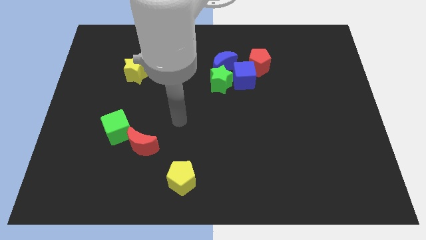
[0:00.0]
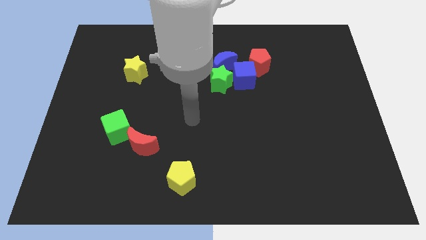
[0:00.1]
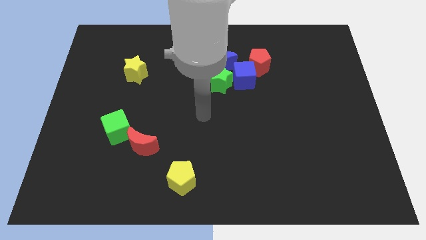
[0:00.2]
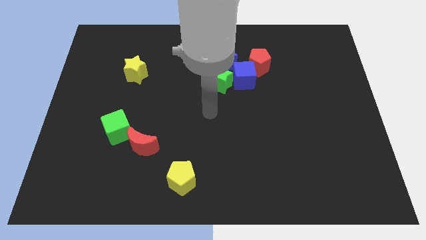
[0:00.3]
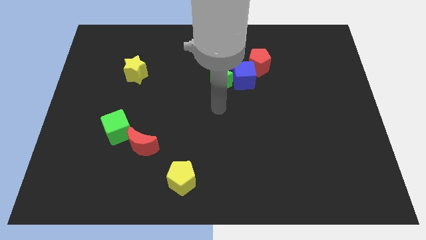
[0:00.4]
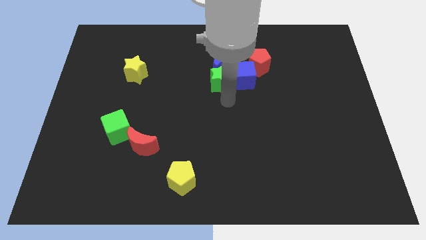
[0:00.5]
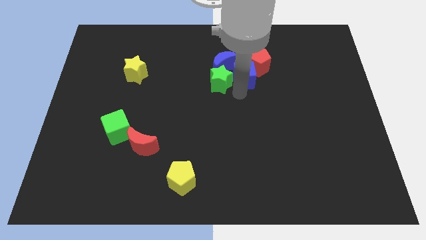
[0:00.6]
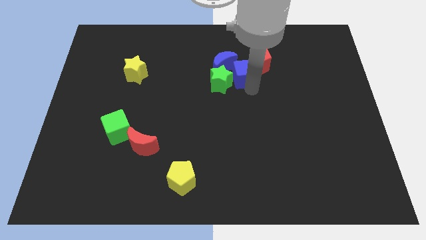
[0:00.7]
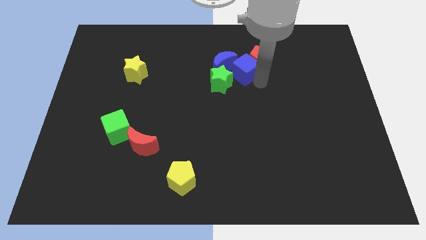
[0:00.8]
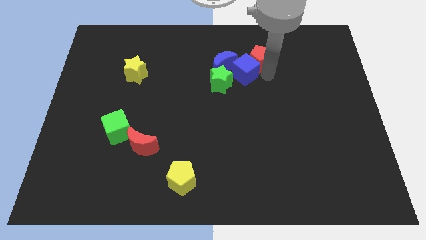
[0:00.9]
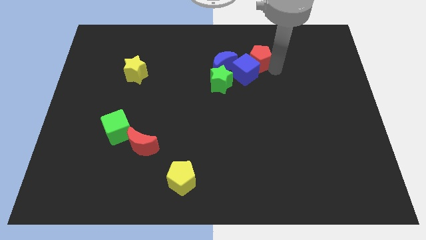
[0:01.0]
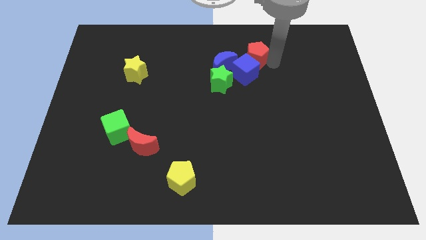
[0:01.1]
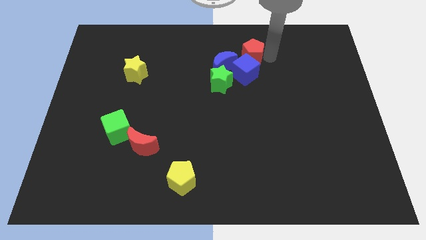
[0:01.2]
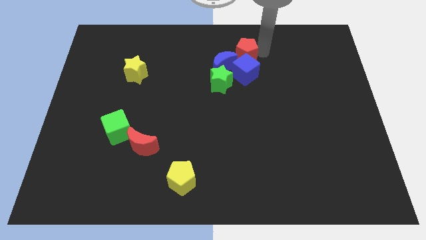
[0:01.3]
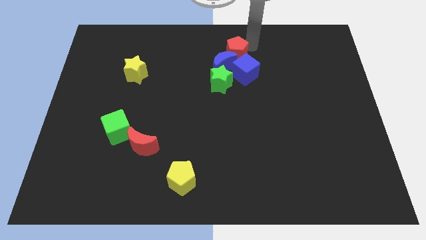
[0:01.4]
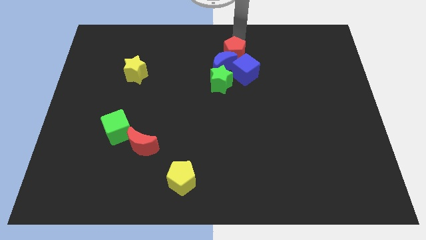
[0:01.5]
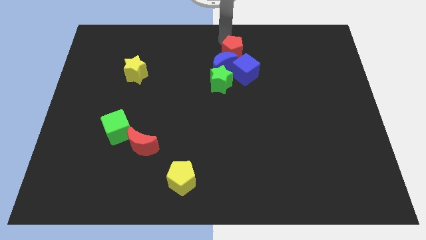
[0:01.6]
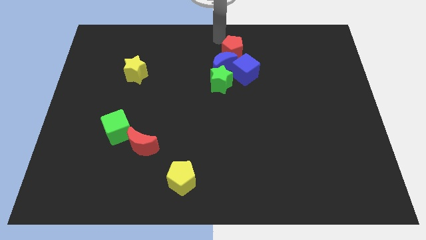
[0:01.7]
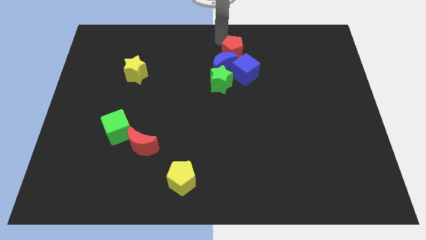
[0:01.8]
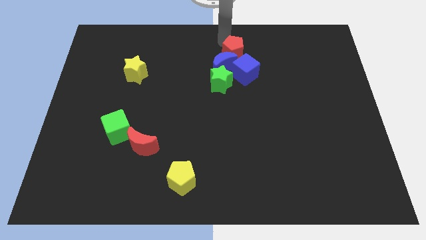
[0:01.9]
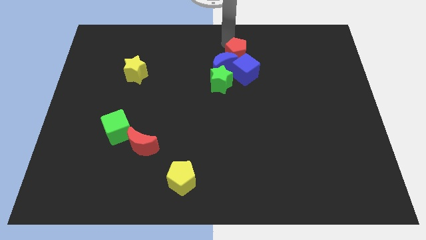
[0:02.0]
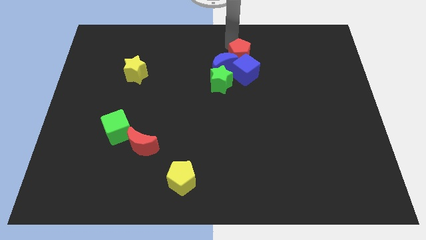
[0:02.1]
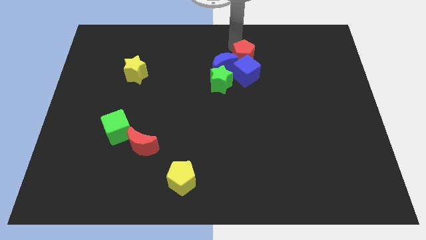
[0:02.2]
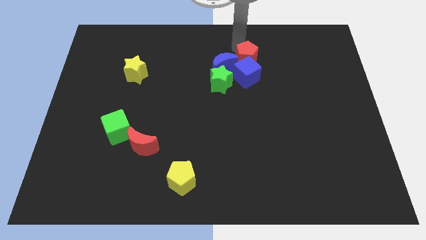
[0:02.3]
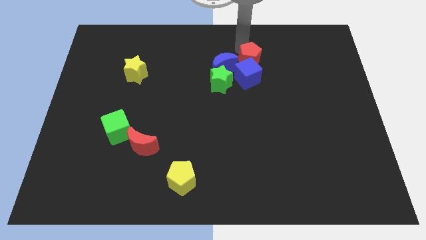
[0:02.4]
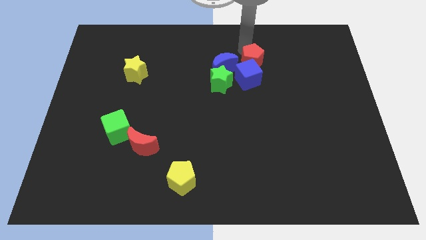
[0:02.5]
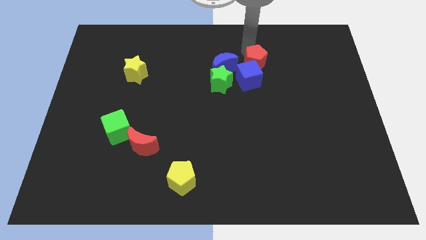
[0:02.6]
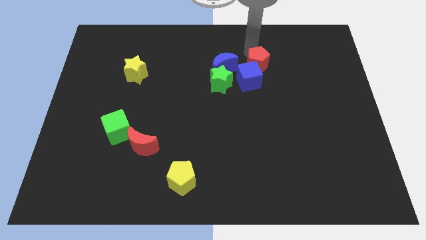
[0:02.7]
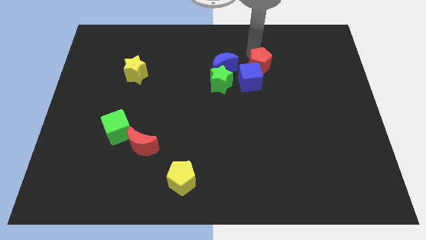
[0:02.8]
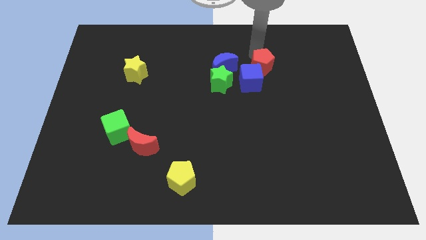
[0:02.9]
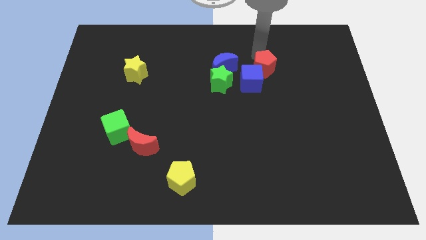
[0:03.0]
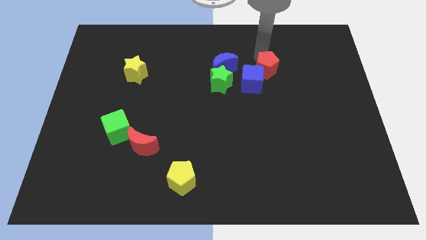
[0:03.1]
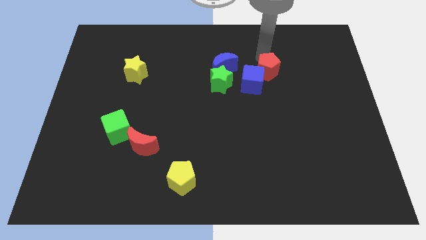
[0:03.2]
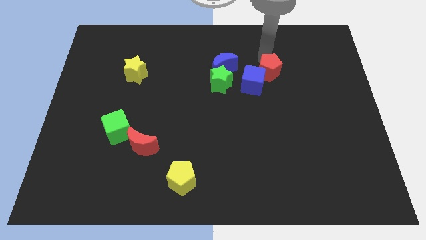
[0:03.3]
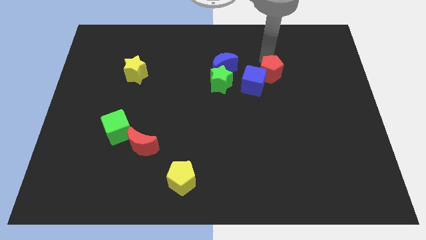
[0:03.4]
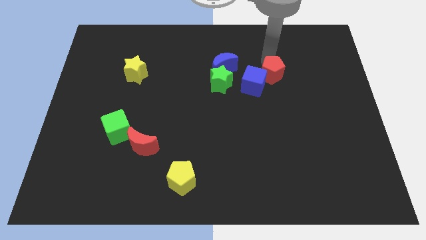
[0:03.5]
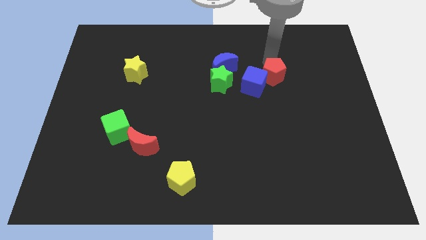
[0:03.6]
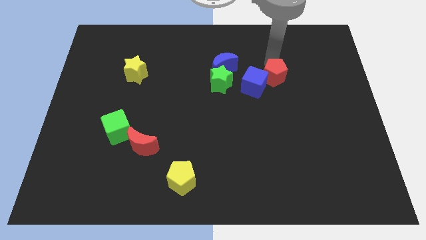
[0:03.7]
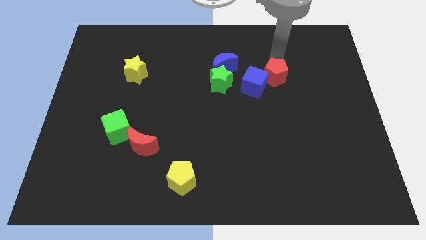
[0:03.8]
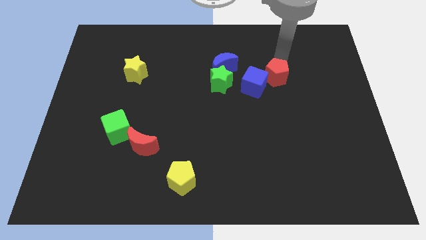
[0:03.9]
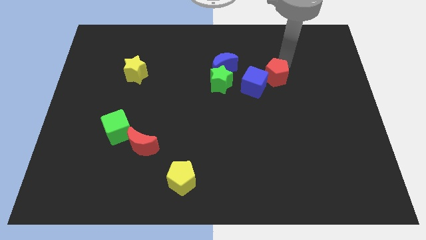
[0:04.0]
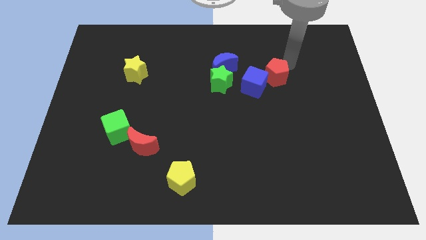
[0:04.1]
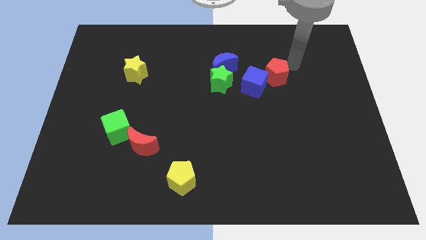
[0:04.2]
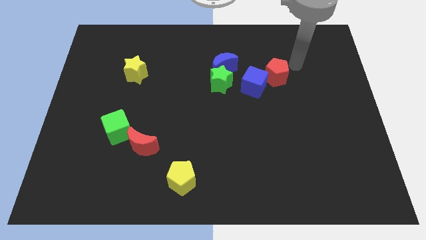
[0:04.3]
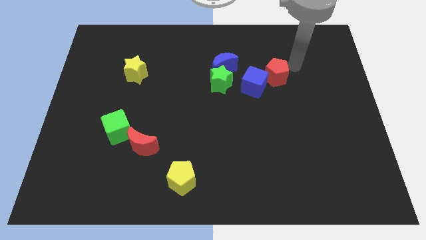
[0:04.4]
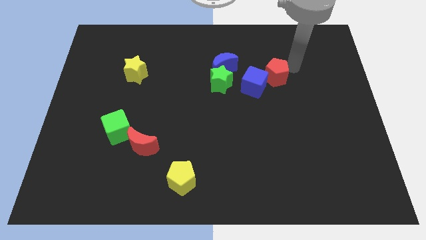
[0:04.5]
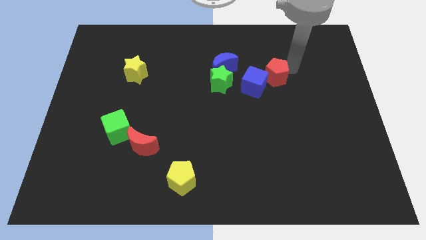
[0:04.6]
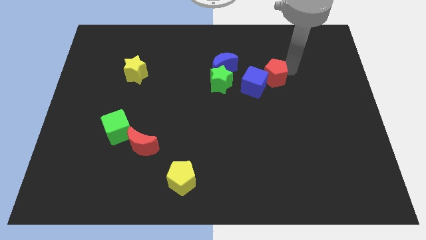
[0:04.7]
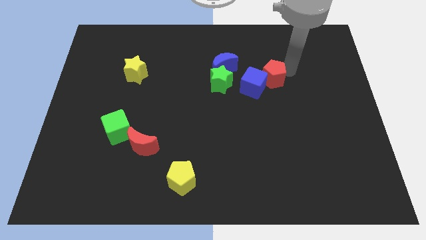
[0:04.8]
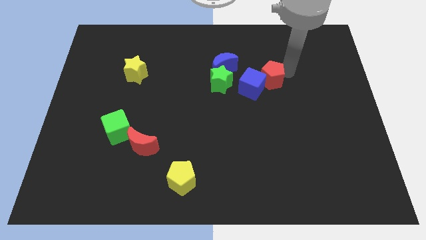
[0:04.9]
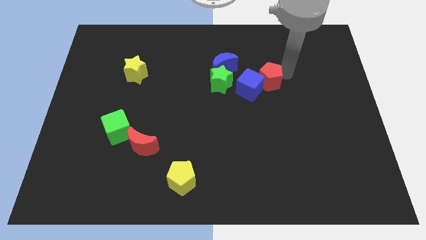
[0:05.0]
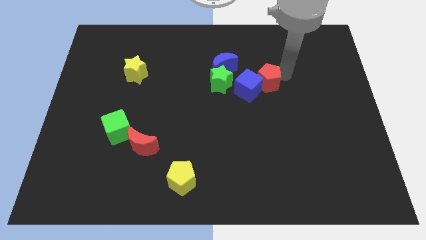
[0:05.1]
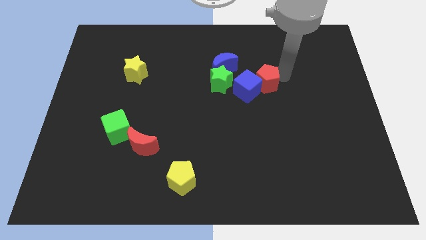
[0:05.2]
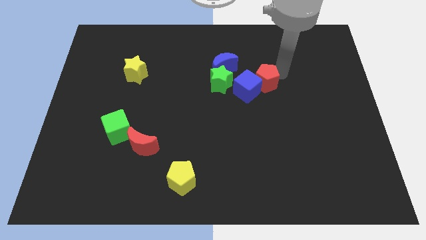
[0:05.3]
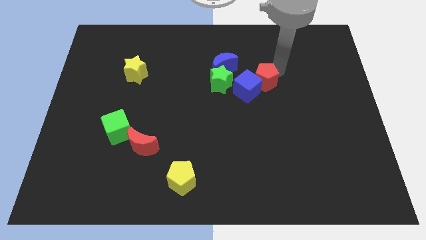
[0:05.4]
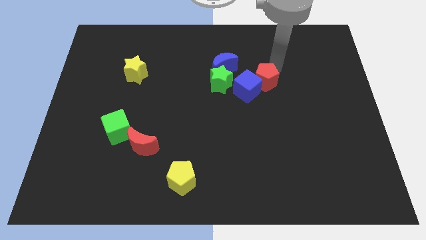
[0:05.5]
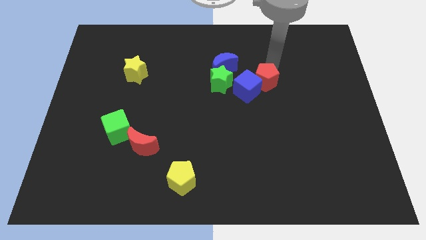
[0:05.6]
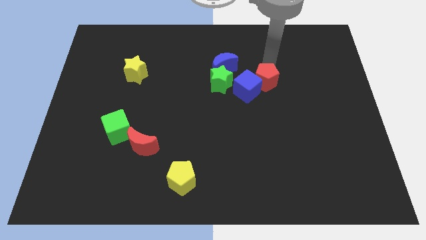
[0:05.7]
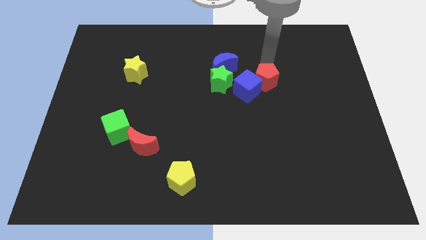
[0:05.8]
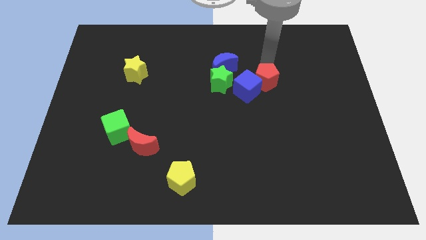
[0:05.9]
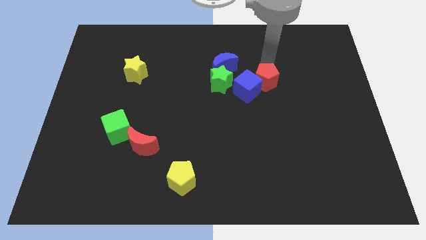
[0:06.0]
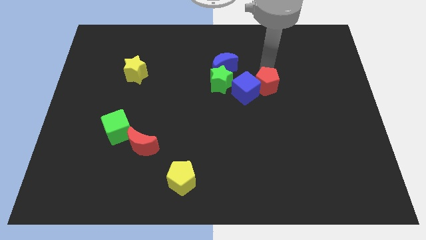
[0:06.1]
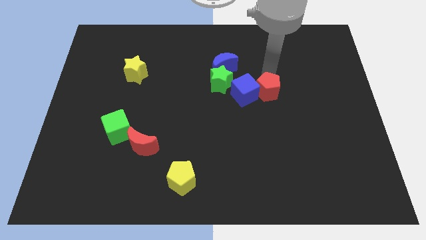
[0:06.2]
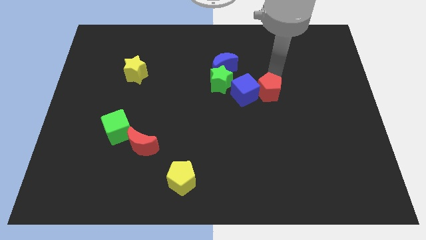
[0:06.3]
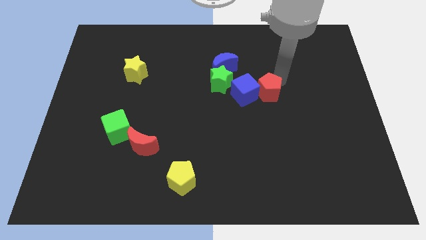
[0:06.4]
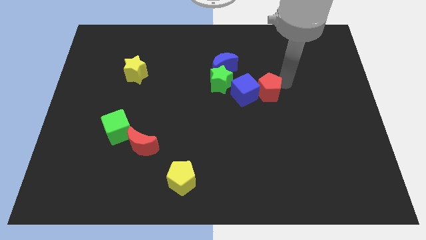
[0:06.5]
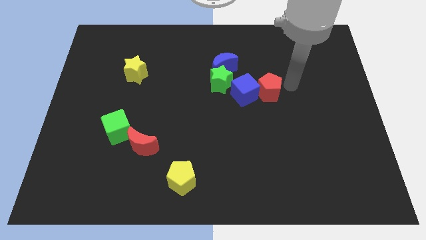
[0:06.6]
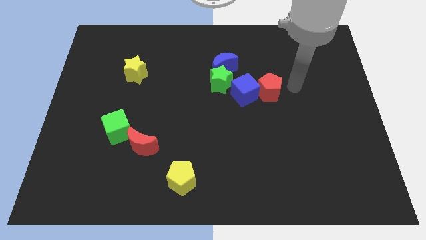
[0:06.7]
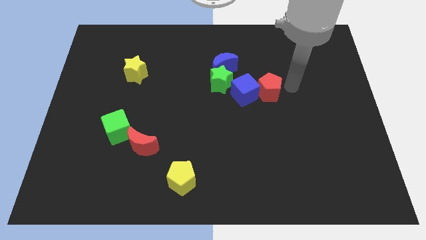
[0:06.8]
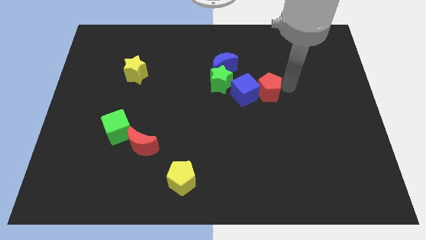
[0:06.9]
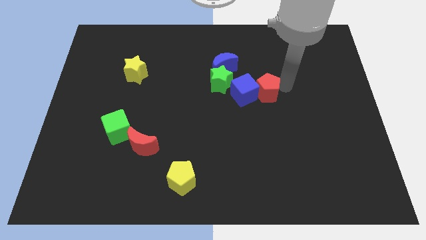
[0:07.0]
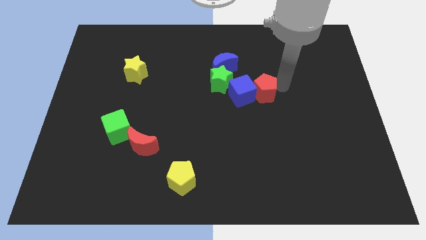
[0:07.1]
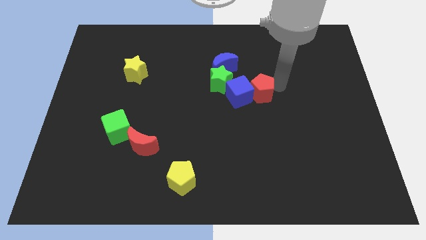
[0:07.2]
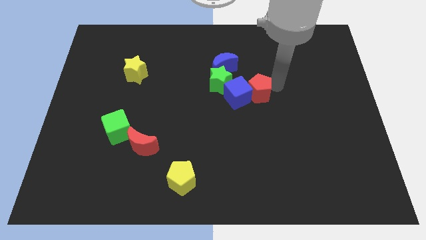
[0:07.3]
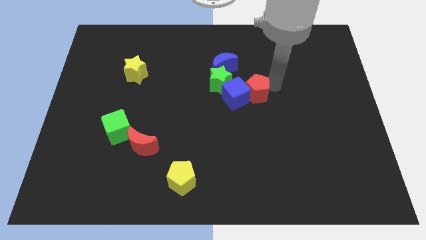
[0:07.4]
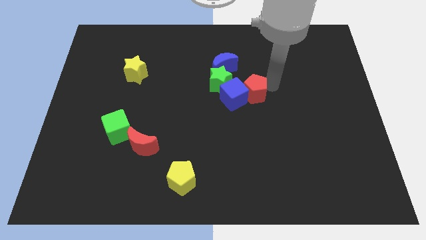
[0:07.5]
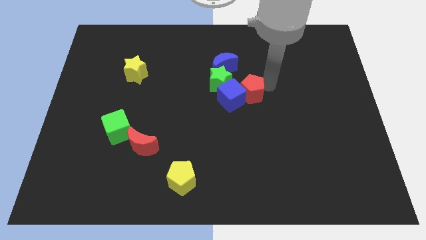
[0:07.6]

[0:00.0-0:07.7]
move the red pentagon a little down and then to the left

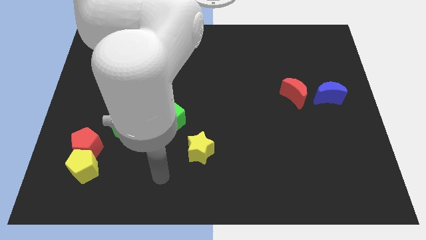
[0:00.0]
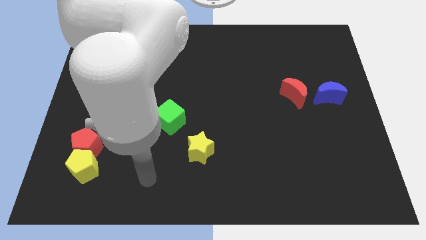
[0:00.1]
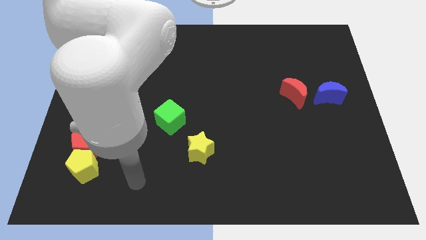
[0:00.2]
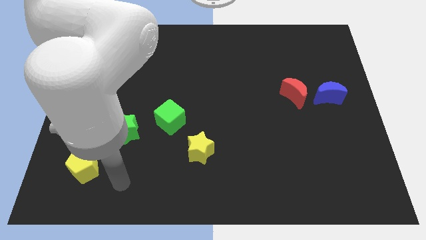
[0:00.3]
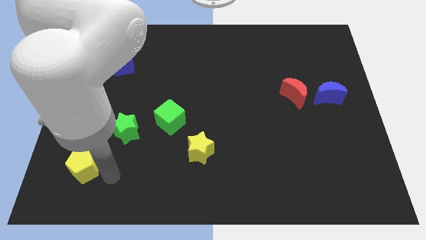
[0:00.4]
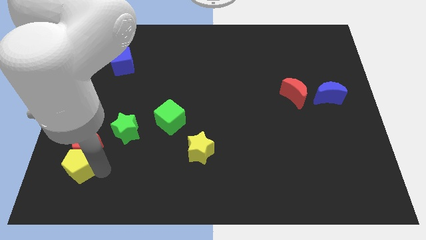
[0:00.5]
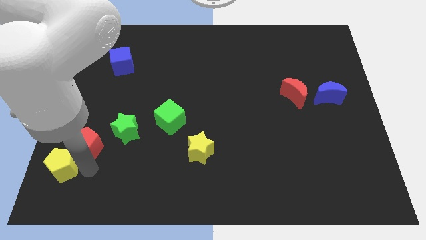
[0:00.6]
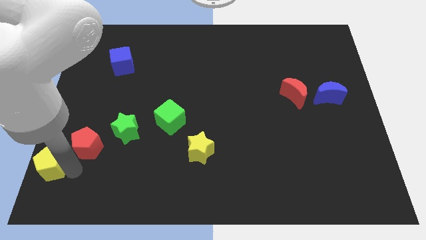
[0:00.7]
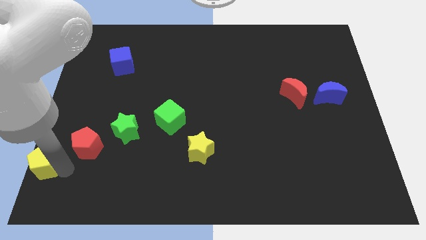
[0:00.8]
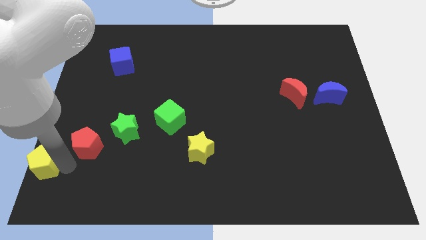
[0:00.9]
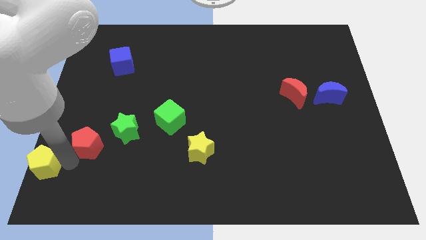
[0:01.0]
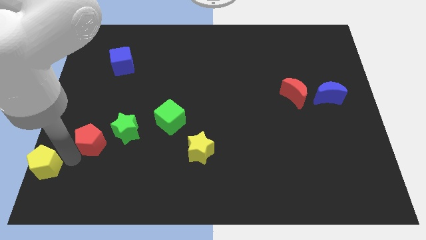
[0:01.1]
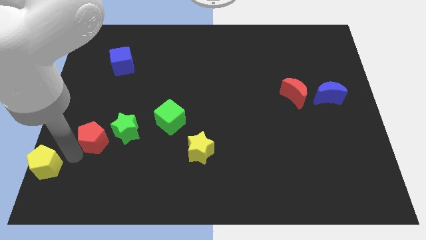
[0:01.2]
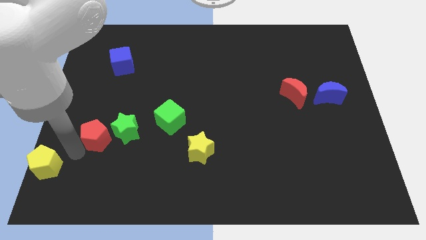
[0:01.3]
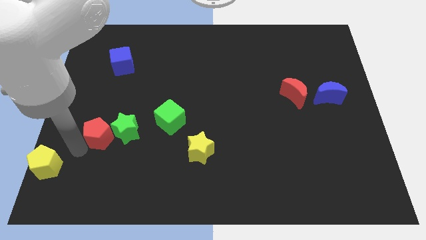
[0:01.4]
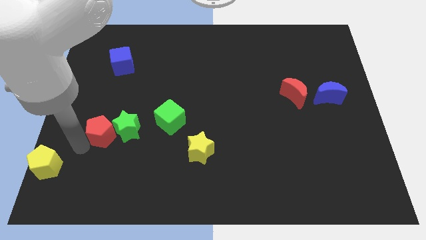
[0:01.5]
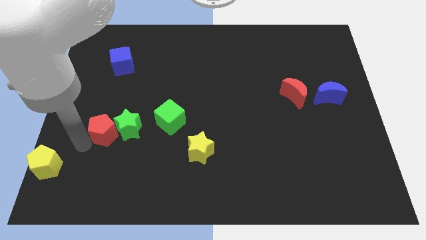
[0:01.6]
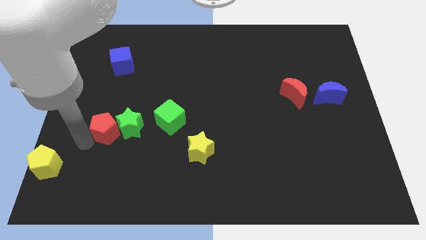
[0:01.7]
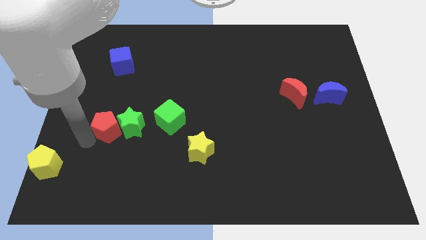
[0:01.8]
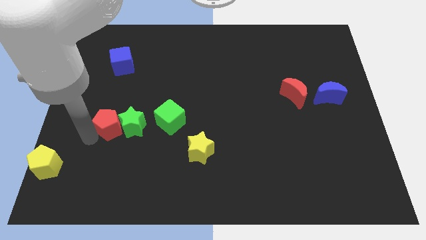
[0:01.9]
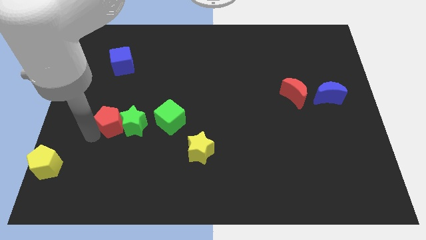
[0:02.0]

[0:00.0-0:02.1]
move the red pentagon upwards and then right a little
